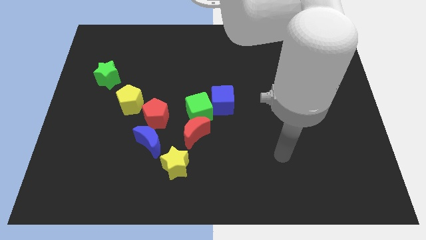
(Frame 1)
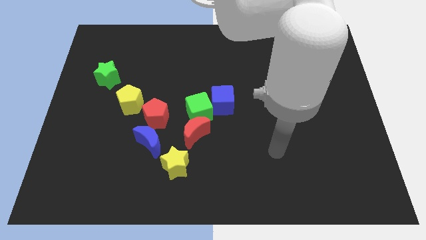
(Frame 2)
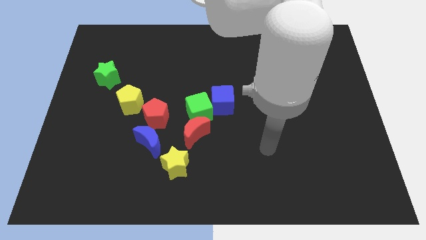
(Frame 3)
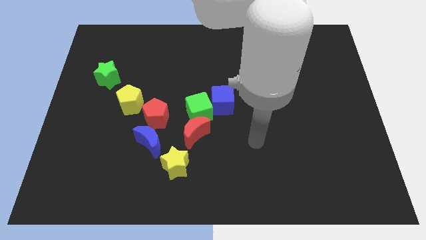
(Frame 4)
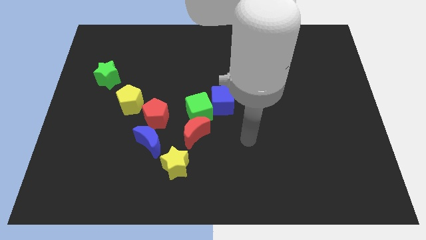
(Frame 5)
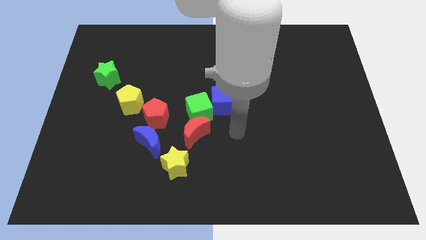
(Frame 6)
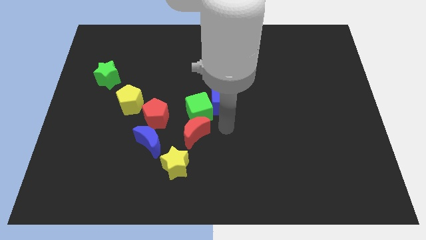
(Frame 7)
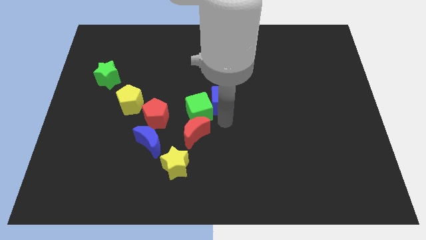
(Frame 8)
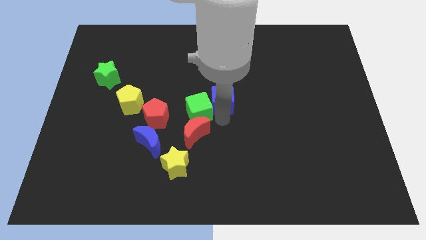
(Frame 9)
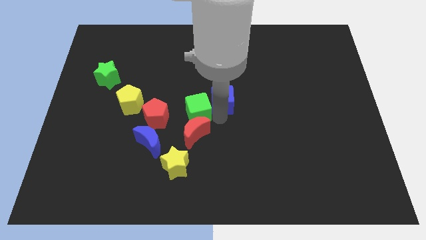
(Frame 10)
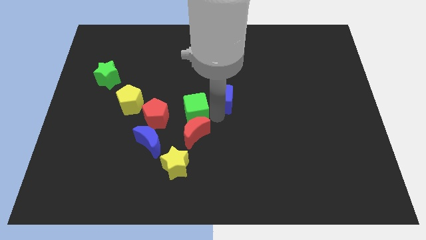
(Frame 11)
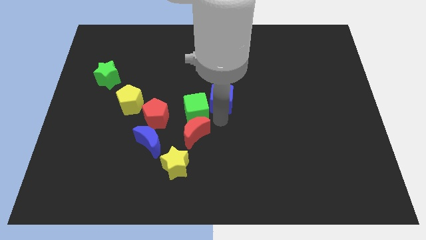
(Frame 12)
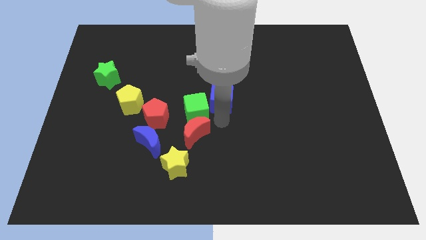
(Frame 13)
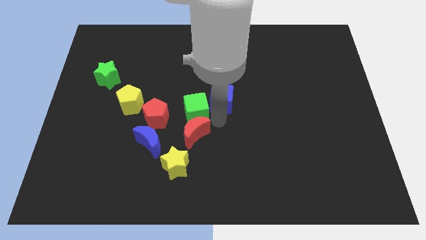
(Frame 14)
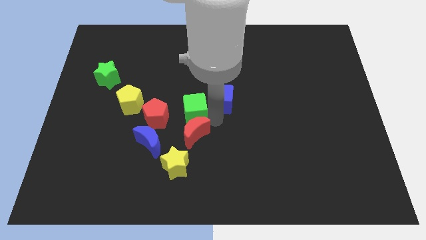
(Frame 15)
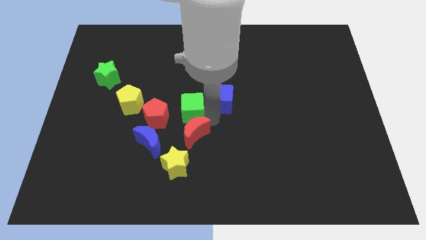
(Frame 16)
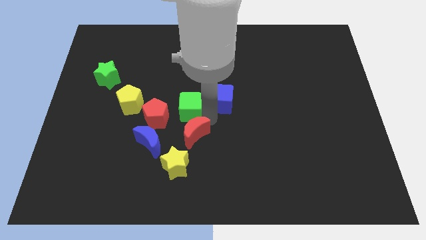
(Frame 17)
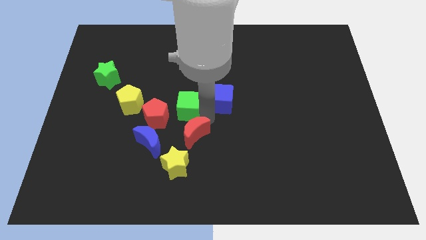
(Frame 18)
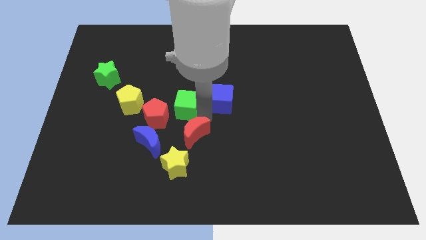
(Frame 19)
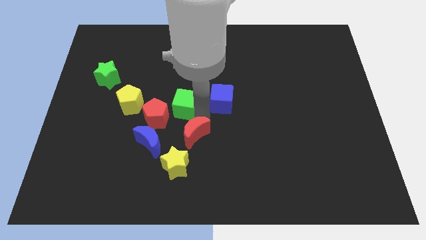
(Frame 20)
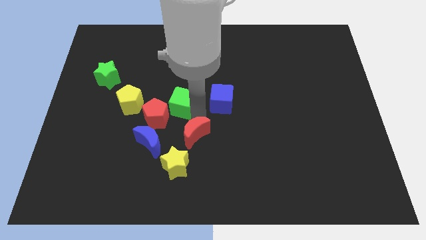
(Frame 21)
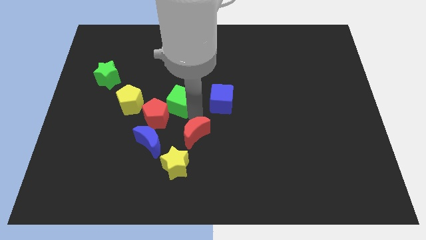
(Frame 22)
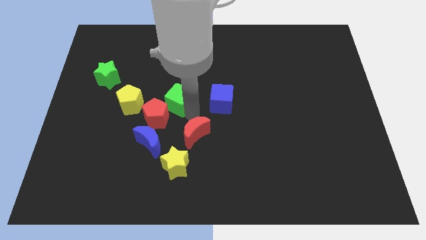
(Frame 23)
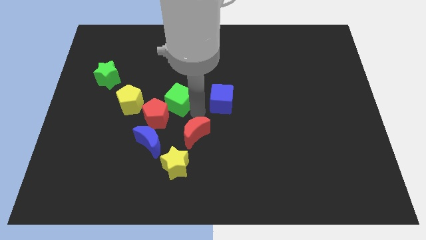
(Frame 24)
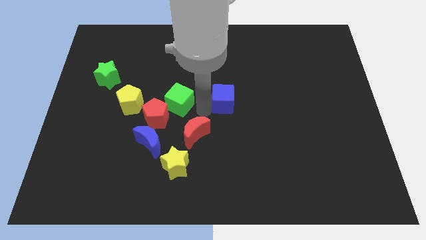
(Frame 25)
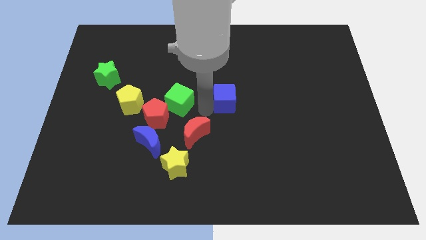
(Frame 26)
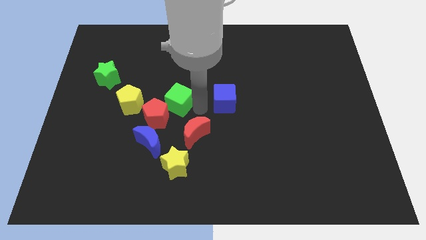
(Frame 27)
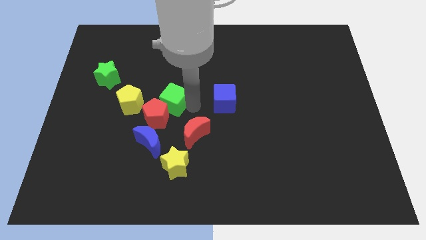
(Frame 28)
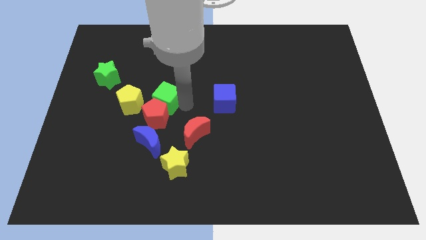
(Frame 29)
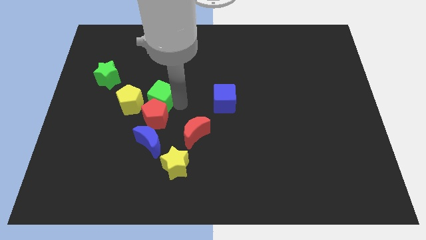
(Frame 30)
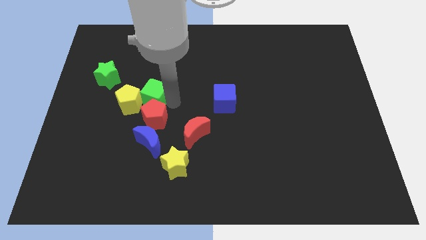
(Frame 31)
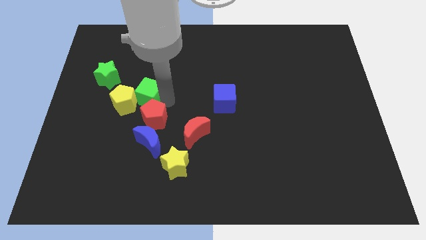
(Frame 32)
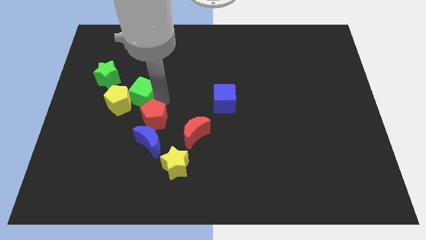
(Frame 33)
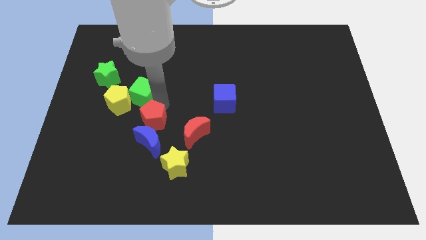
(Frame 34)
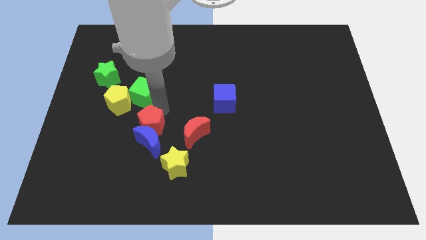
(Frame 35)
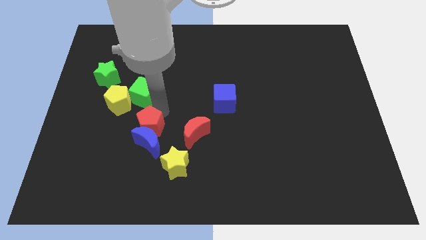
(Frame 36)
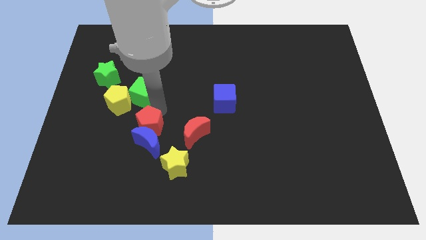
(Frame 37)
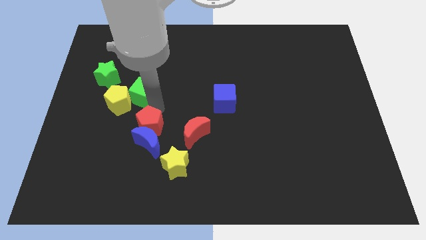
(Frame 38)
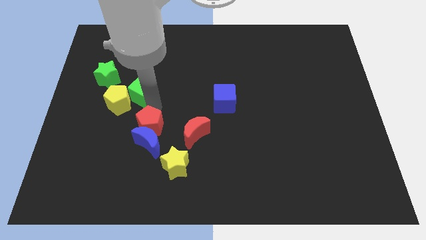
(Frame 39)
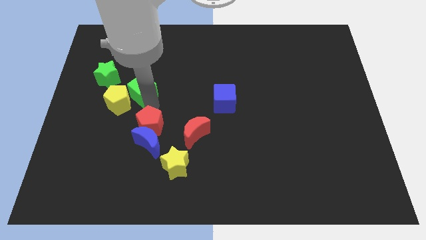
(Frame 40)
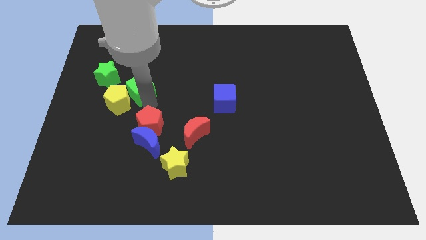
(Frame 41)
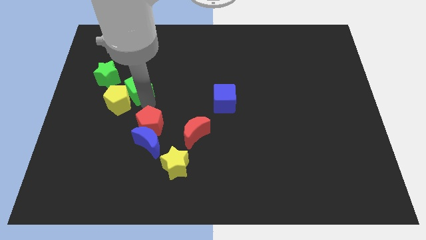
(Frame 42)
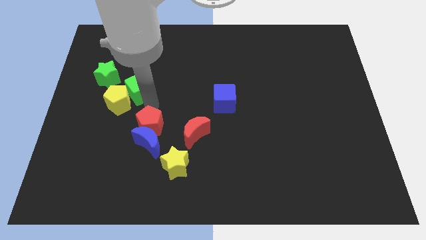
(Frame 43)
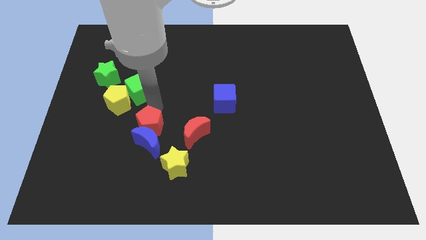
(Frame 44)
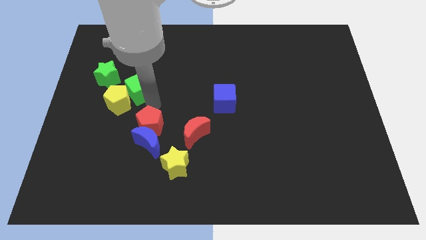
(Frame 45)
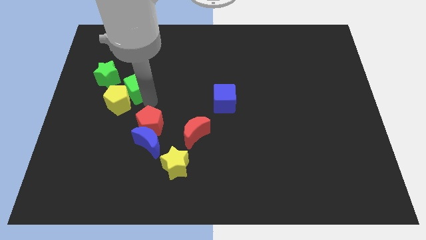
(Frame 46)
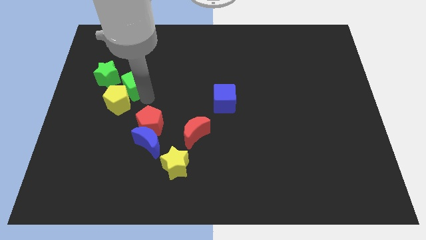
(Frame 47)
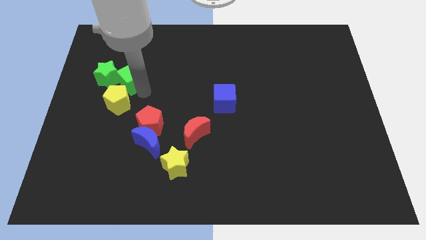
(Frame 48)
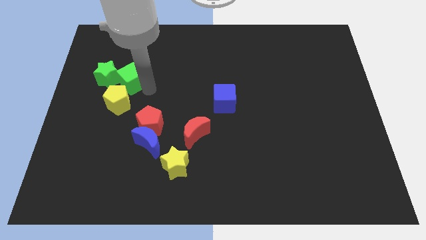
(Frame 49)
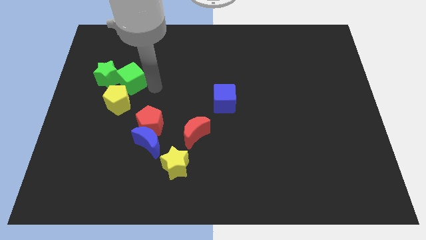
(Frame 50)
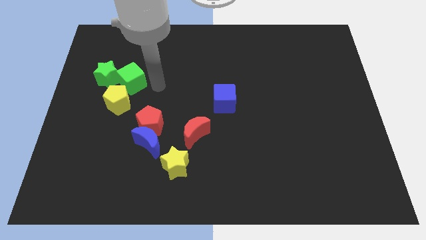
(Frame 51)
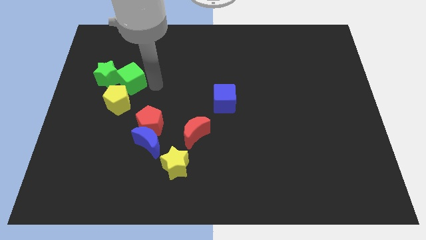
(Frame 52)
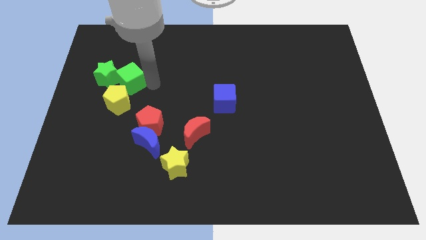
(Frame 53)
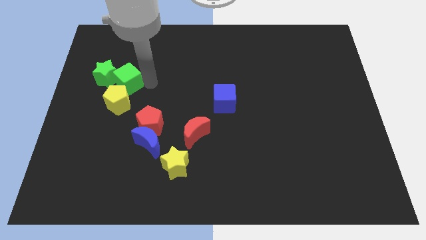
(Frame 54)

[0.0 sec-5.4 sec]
put the green cube next to the green star

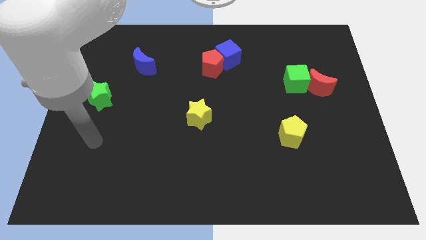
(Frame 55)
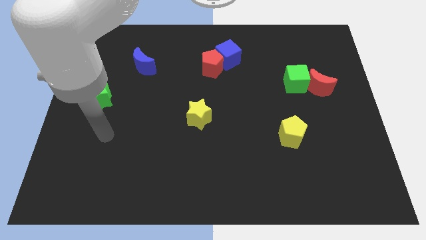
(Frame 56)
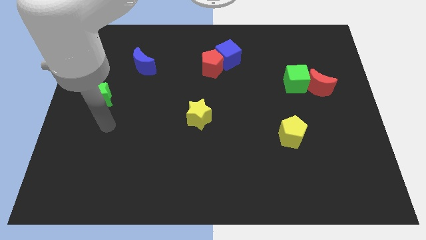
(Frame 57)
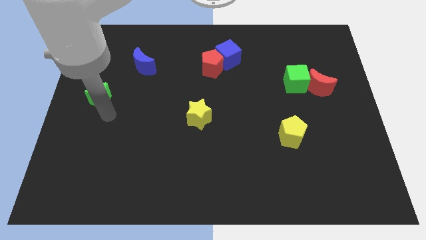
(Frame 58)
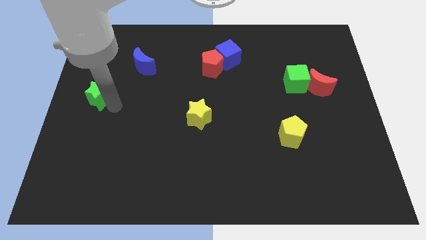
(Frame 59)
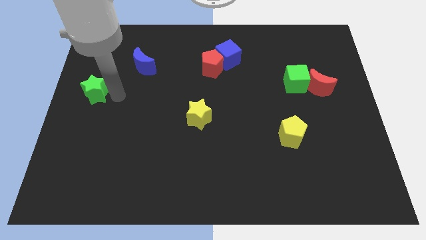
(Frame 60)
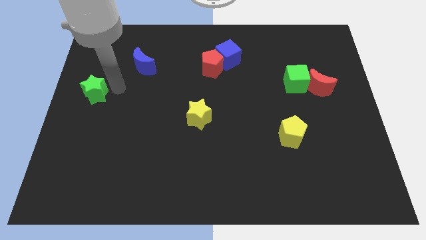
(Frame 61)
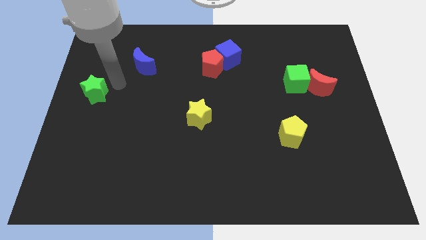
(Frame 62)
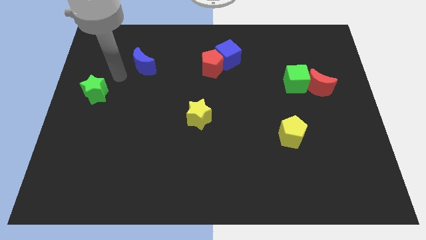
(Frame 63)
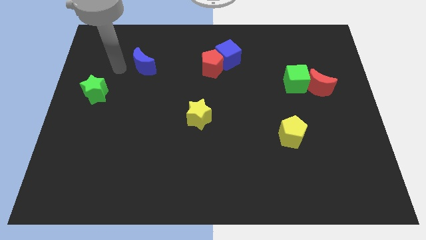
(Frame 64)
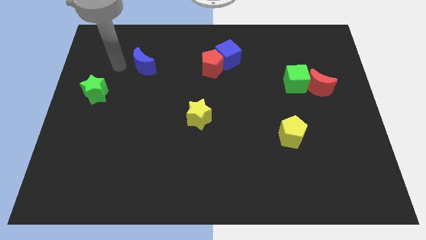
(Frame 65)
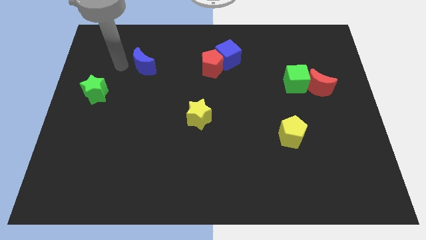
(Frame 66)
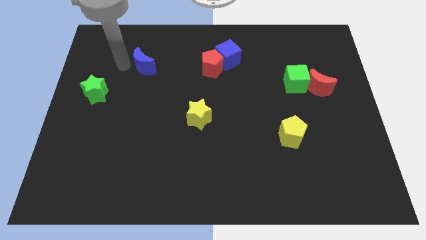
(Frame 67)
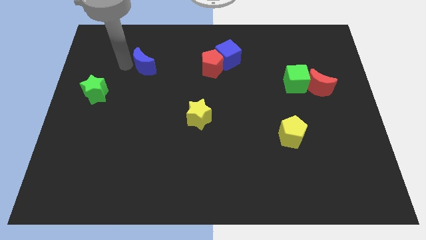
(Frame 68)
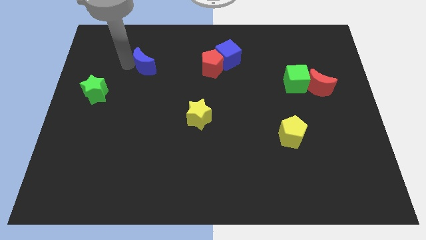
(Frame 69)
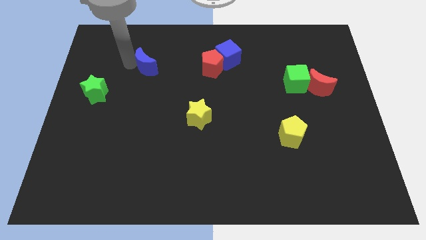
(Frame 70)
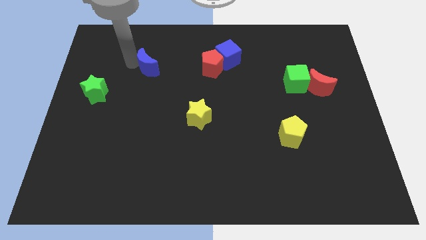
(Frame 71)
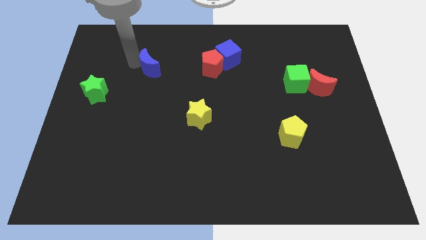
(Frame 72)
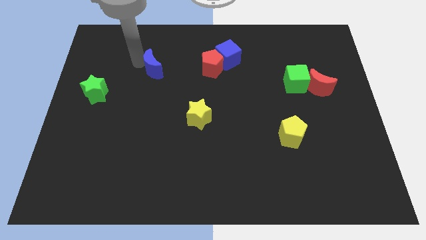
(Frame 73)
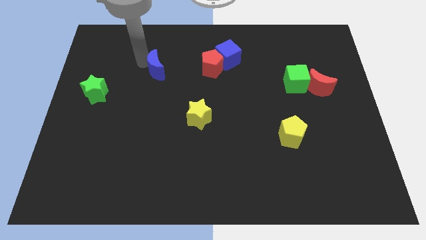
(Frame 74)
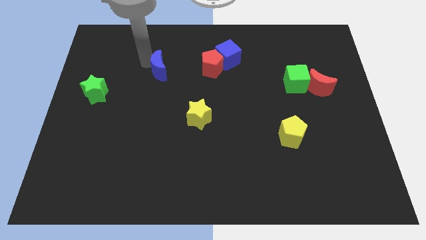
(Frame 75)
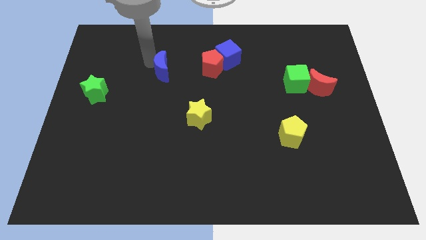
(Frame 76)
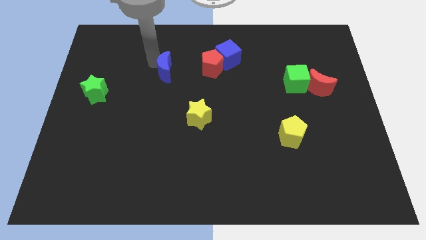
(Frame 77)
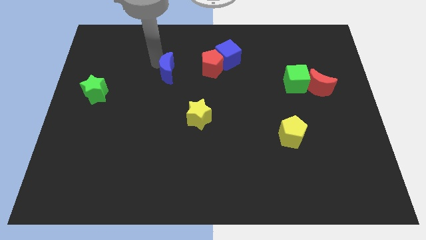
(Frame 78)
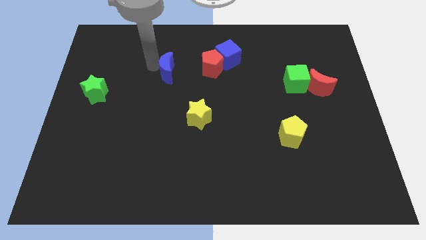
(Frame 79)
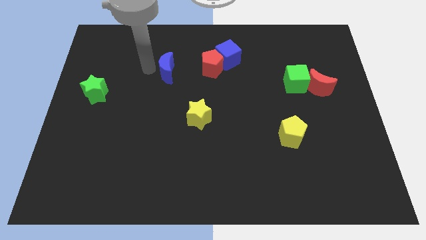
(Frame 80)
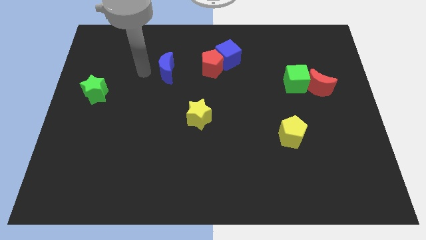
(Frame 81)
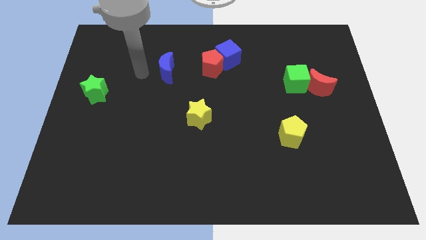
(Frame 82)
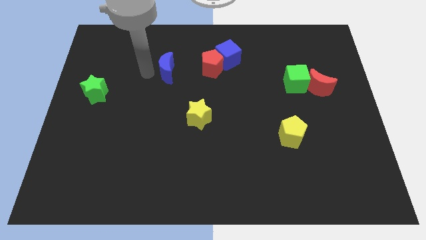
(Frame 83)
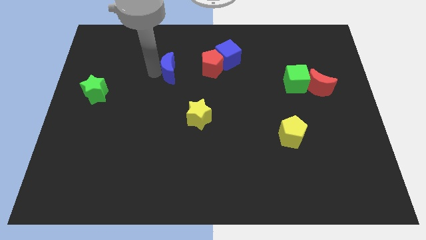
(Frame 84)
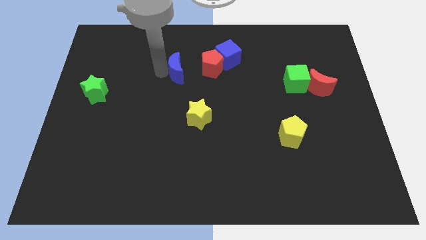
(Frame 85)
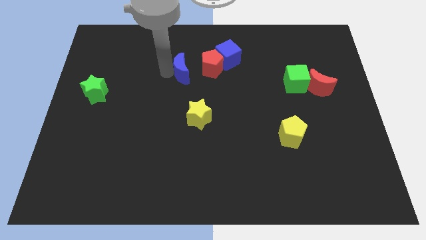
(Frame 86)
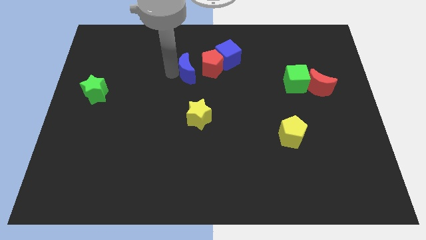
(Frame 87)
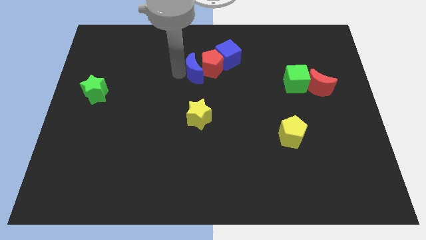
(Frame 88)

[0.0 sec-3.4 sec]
put the blue moon to the red pentagon
